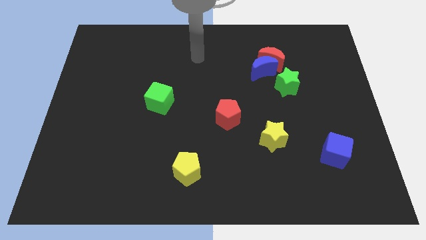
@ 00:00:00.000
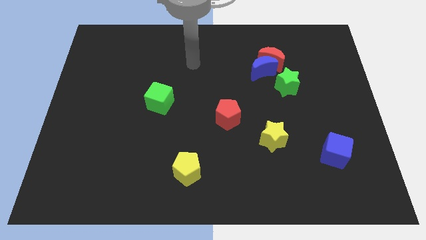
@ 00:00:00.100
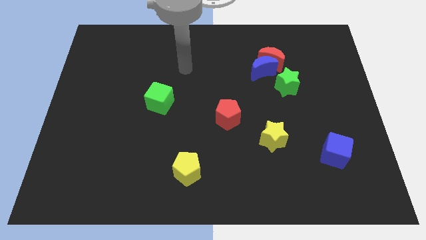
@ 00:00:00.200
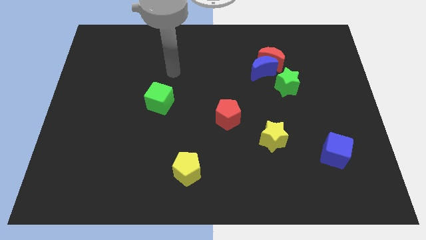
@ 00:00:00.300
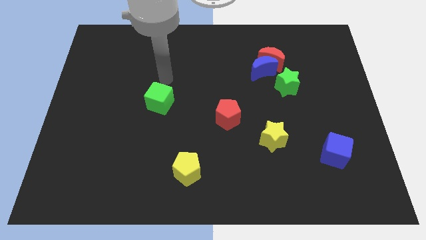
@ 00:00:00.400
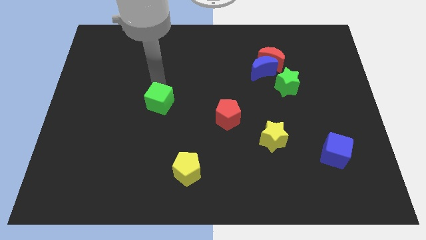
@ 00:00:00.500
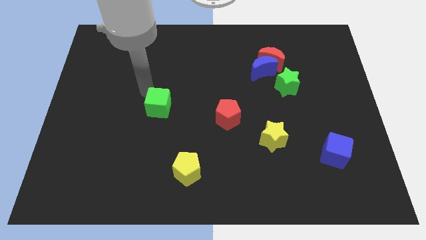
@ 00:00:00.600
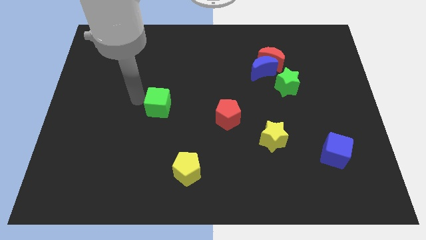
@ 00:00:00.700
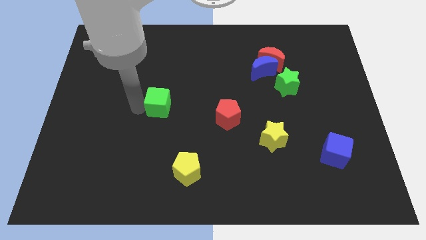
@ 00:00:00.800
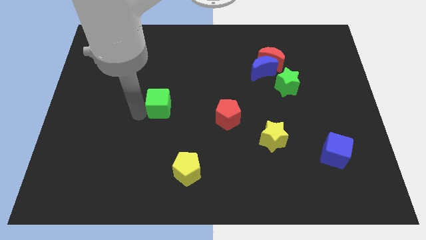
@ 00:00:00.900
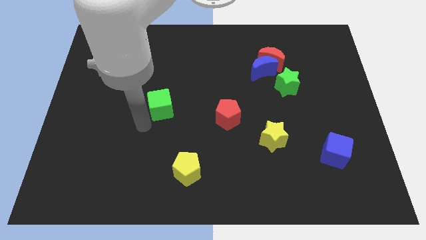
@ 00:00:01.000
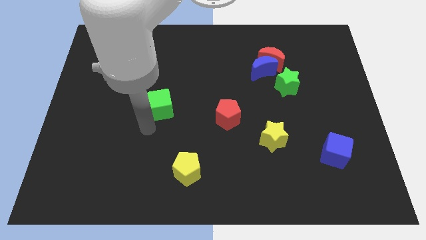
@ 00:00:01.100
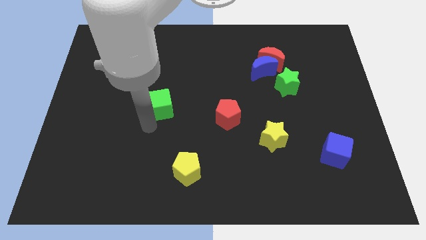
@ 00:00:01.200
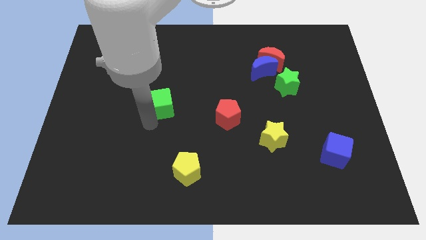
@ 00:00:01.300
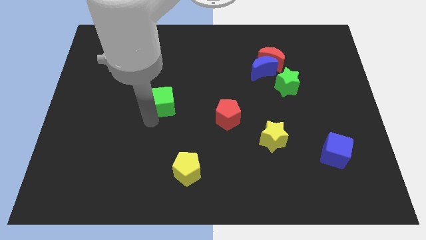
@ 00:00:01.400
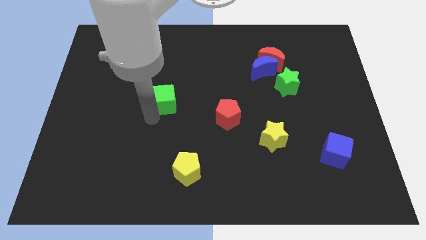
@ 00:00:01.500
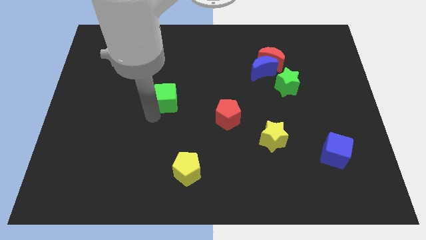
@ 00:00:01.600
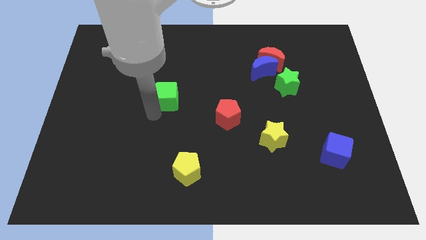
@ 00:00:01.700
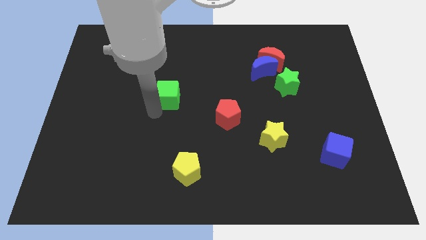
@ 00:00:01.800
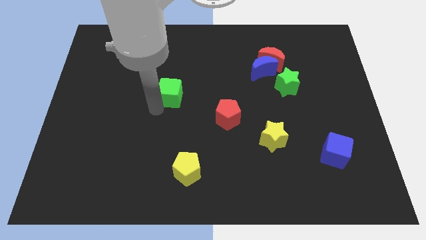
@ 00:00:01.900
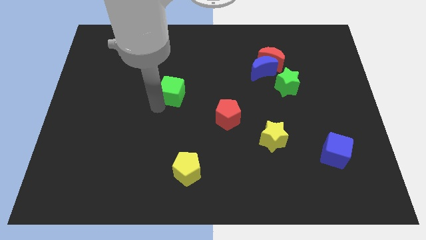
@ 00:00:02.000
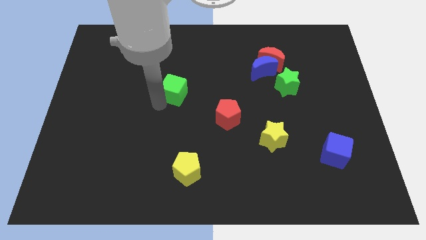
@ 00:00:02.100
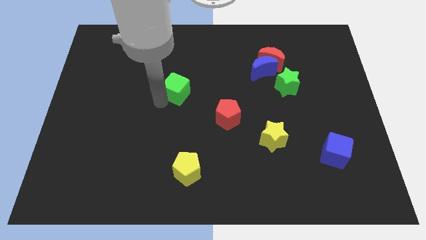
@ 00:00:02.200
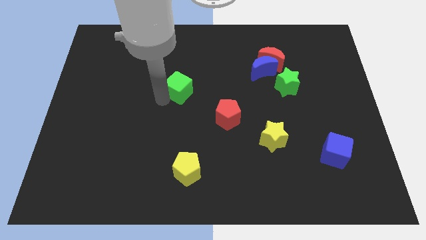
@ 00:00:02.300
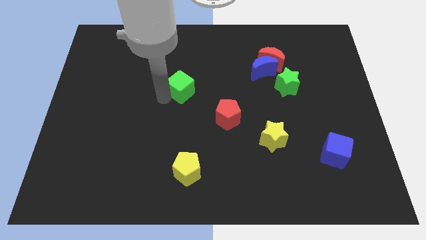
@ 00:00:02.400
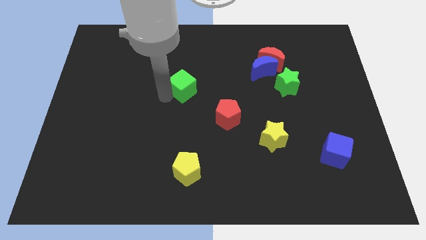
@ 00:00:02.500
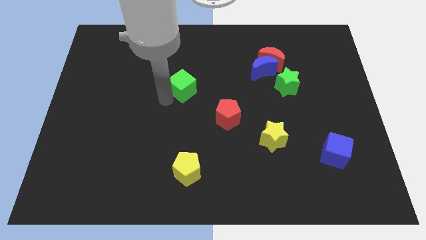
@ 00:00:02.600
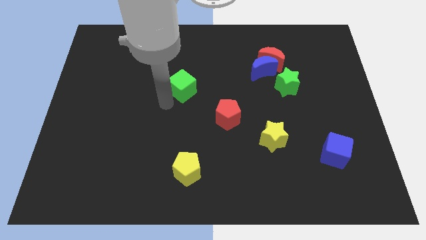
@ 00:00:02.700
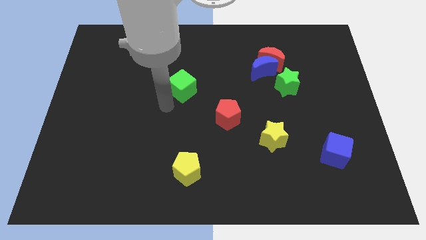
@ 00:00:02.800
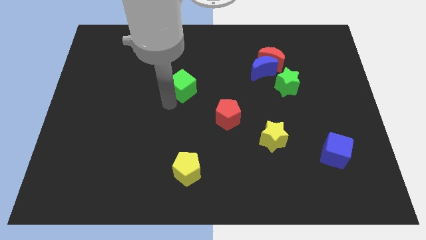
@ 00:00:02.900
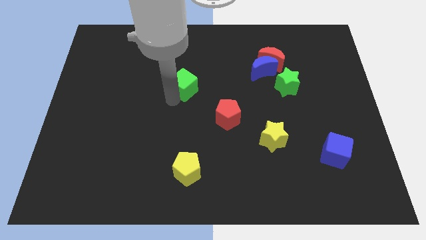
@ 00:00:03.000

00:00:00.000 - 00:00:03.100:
slide the green cube up and then to the right a little bit

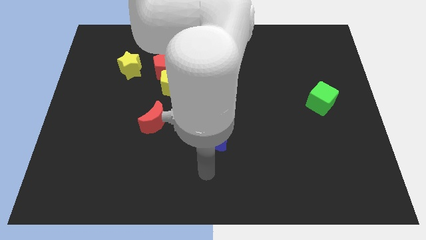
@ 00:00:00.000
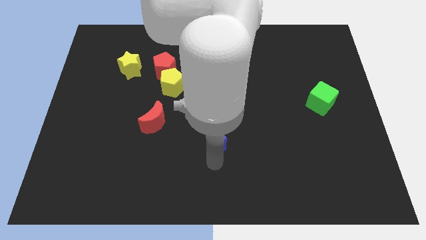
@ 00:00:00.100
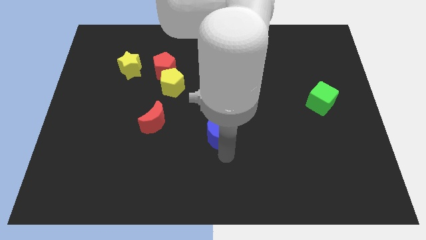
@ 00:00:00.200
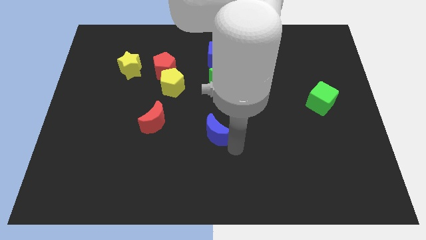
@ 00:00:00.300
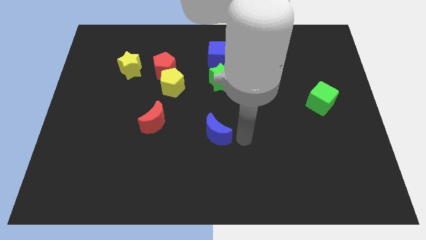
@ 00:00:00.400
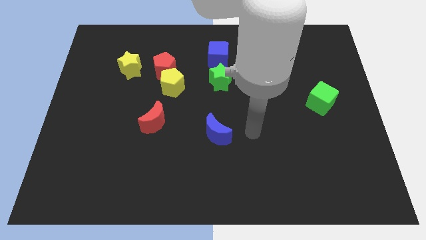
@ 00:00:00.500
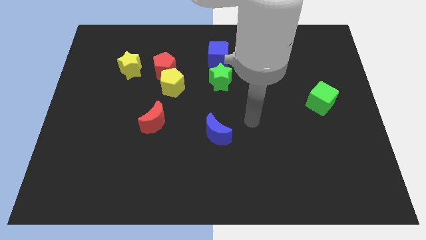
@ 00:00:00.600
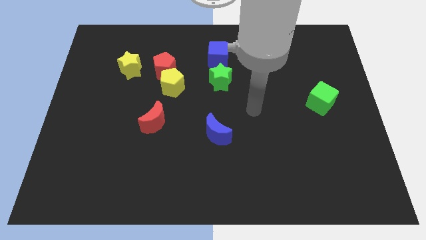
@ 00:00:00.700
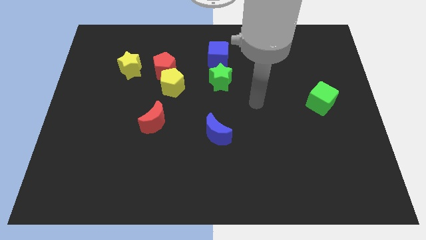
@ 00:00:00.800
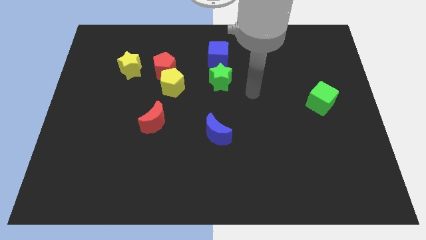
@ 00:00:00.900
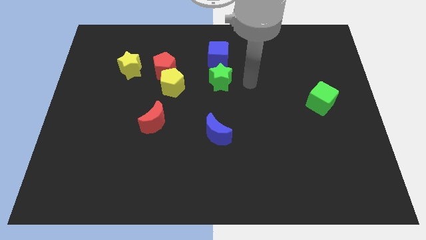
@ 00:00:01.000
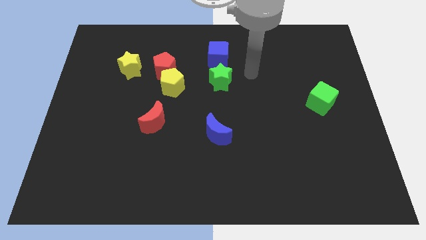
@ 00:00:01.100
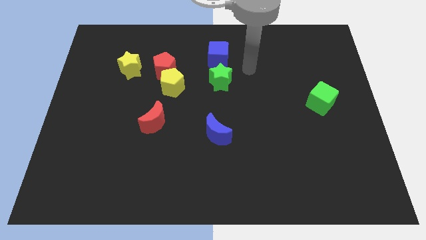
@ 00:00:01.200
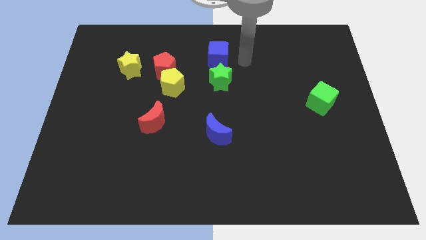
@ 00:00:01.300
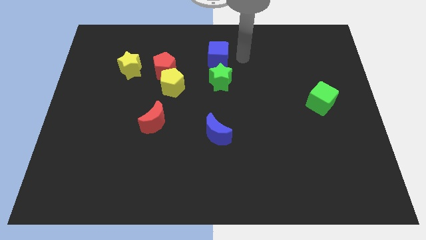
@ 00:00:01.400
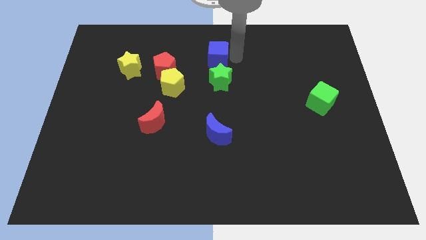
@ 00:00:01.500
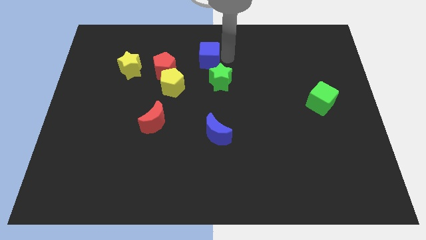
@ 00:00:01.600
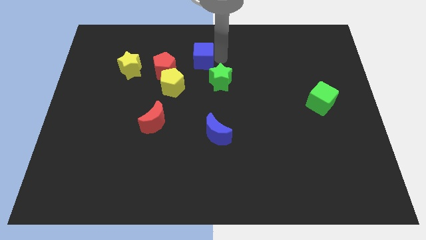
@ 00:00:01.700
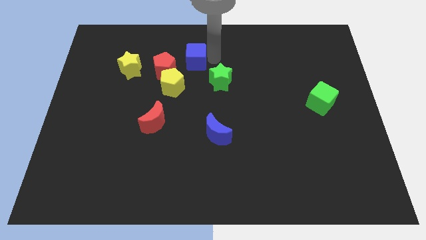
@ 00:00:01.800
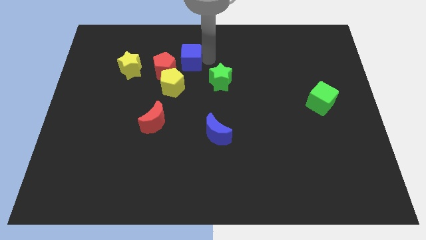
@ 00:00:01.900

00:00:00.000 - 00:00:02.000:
push the blue cube left a little bit

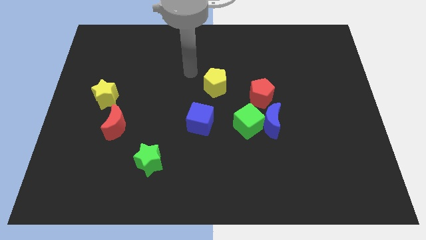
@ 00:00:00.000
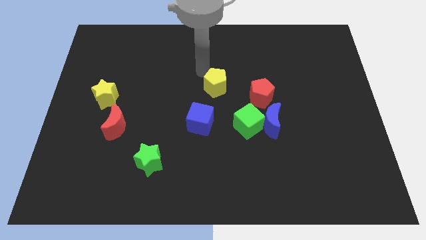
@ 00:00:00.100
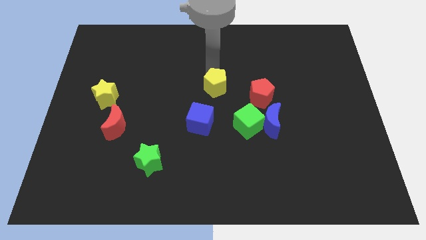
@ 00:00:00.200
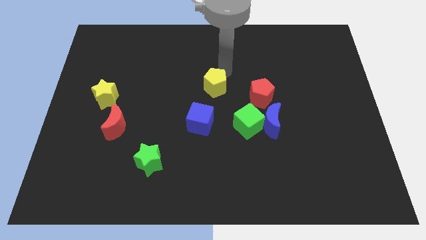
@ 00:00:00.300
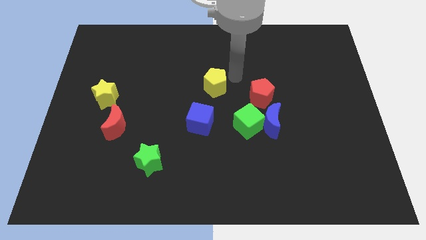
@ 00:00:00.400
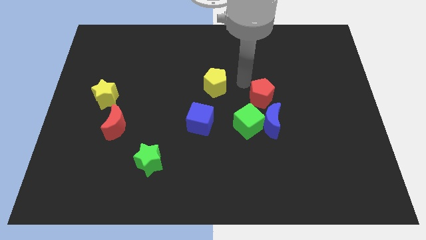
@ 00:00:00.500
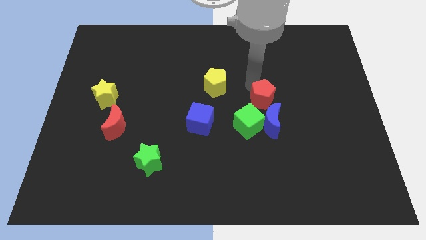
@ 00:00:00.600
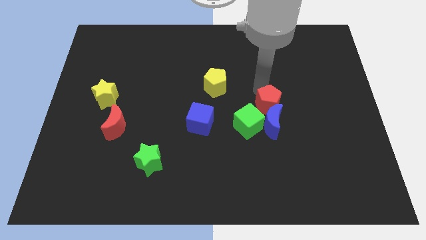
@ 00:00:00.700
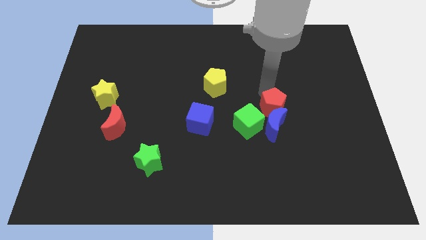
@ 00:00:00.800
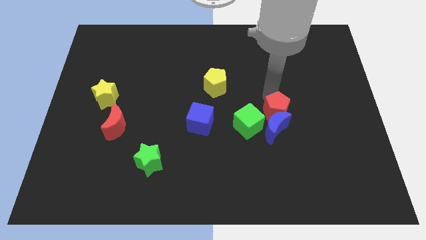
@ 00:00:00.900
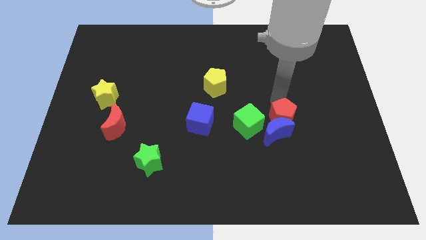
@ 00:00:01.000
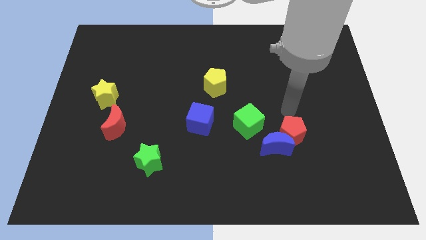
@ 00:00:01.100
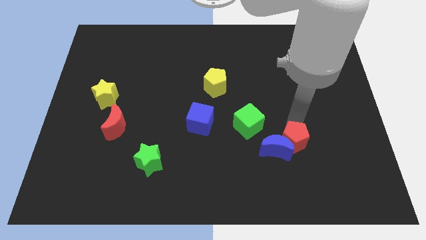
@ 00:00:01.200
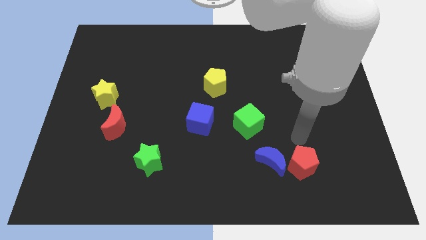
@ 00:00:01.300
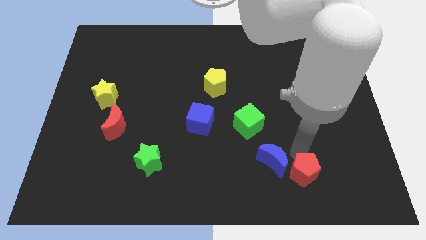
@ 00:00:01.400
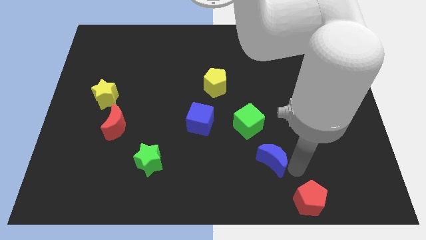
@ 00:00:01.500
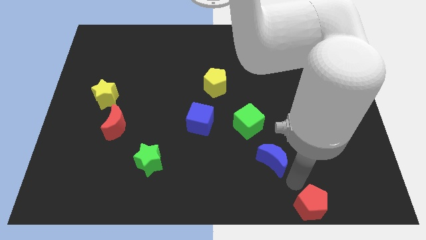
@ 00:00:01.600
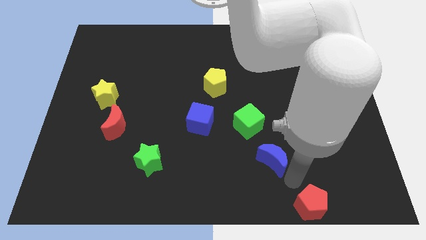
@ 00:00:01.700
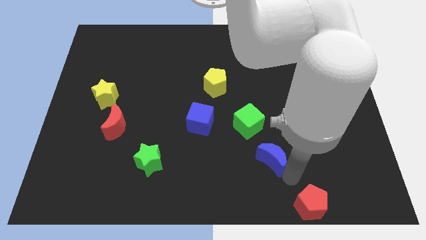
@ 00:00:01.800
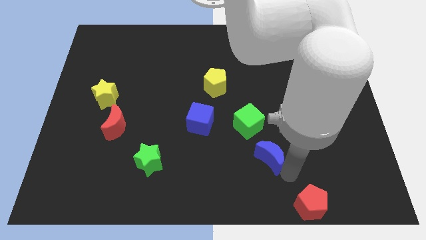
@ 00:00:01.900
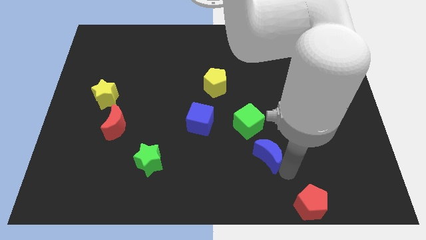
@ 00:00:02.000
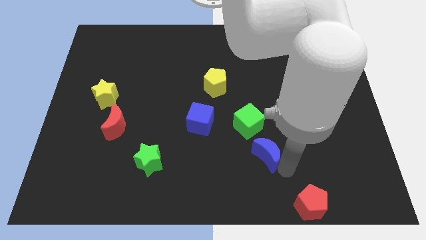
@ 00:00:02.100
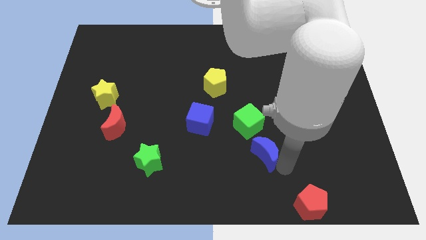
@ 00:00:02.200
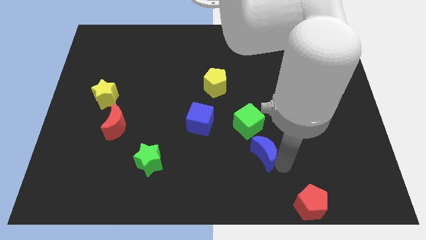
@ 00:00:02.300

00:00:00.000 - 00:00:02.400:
slide the blue moon a little down and to the left diagonally

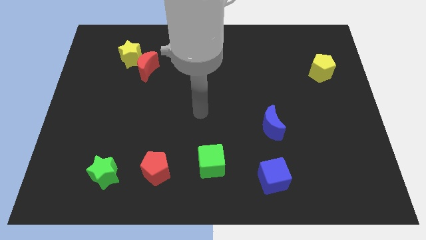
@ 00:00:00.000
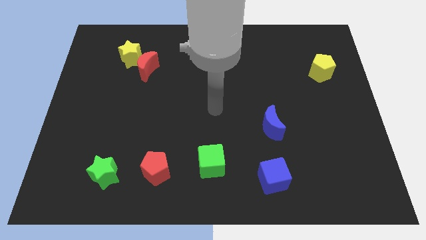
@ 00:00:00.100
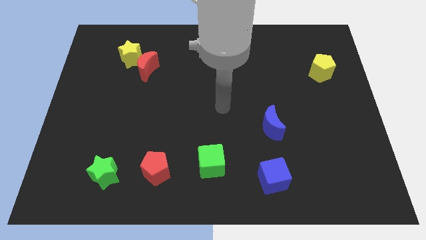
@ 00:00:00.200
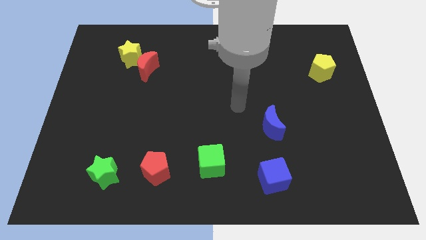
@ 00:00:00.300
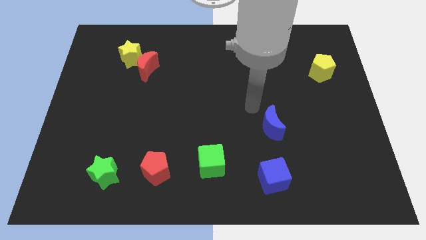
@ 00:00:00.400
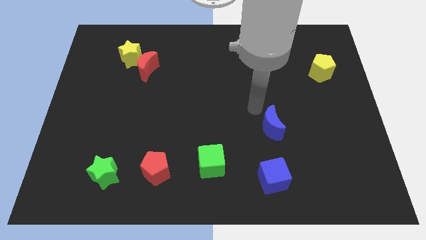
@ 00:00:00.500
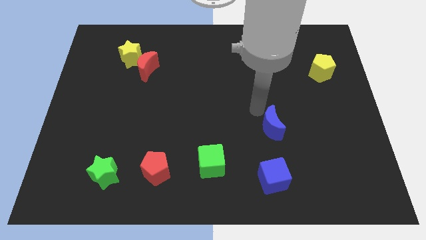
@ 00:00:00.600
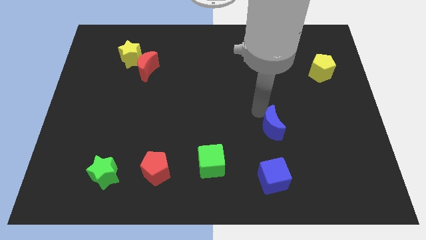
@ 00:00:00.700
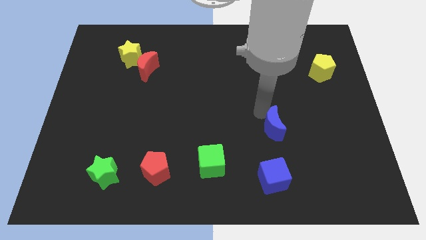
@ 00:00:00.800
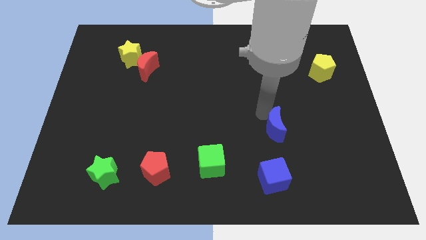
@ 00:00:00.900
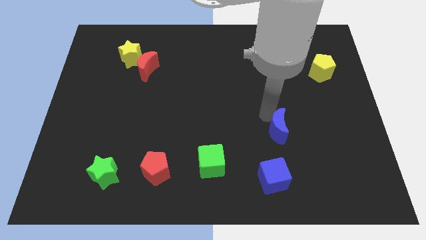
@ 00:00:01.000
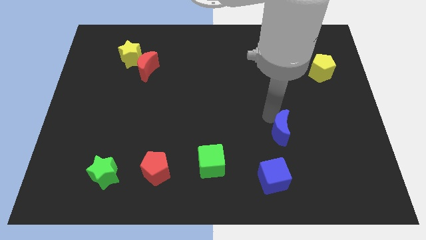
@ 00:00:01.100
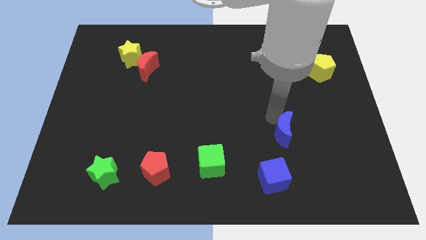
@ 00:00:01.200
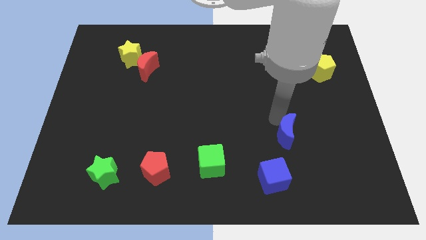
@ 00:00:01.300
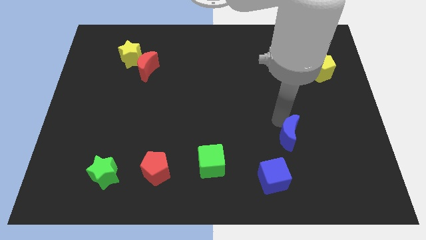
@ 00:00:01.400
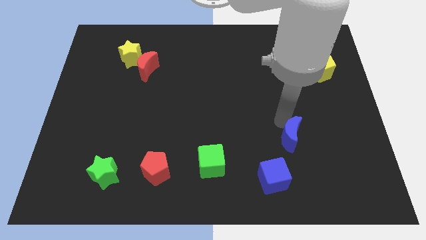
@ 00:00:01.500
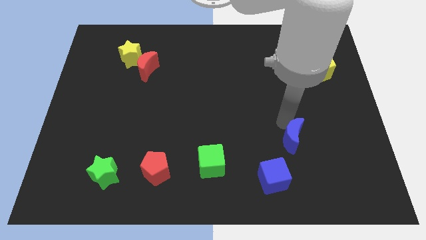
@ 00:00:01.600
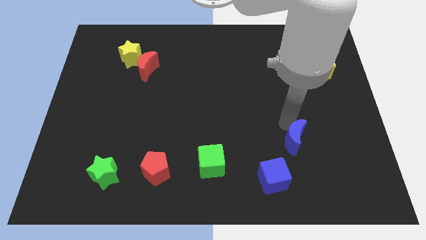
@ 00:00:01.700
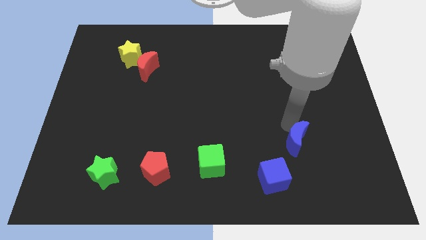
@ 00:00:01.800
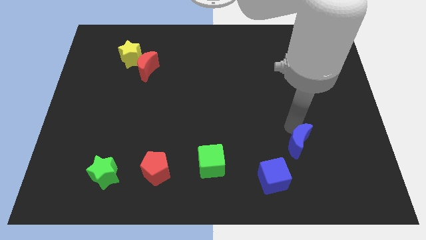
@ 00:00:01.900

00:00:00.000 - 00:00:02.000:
slightly push the blue moon diagonally down and right
